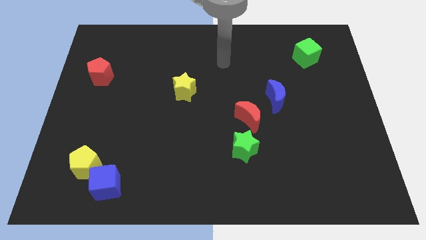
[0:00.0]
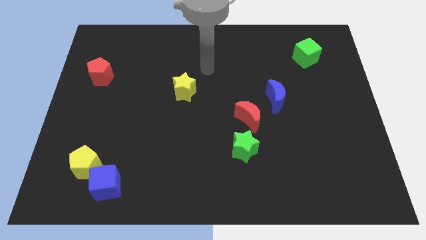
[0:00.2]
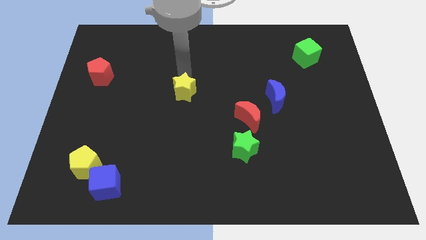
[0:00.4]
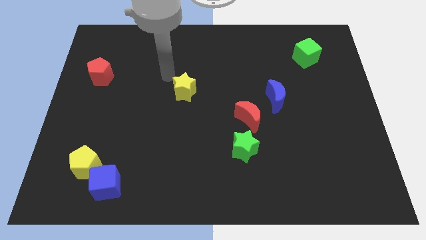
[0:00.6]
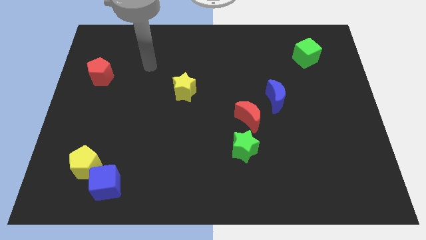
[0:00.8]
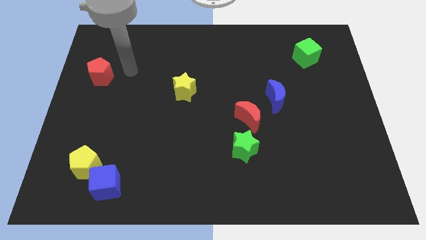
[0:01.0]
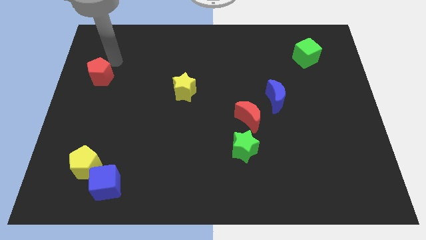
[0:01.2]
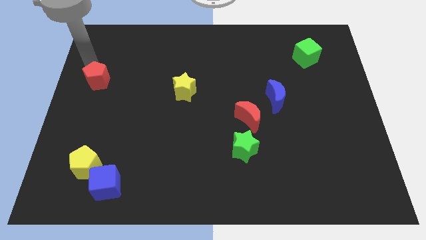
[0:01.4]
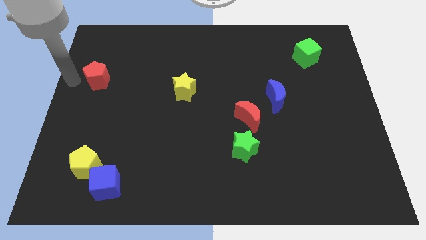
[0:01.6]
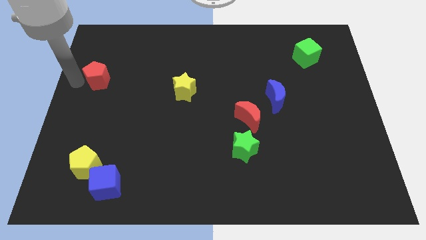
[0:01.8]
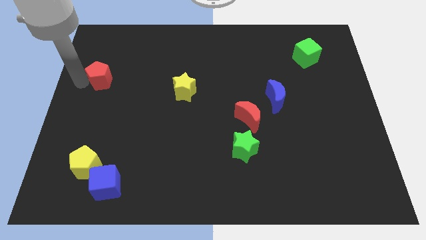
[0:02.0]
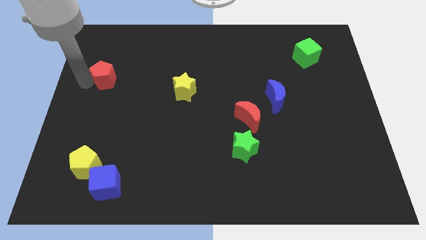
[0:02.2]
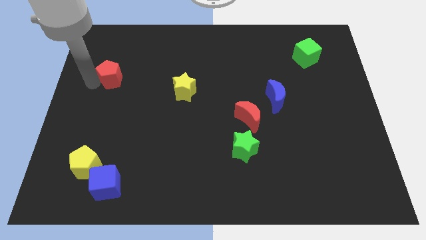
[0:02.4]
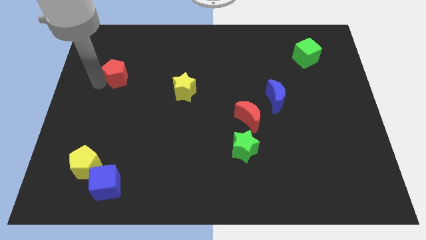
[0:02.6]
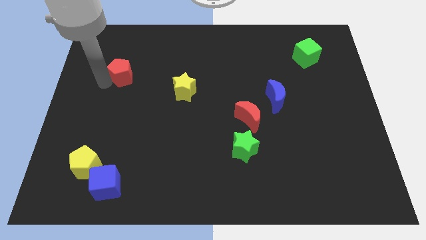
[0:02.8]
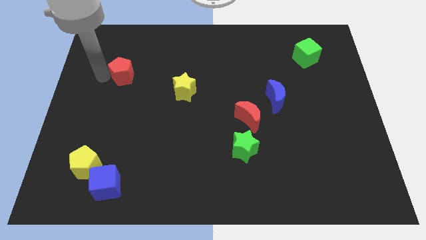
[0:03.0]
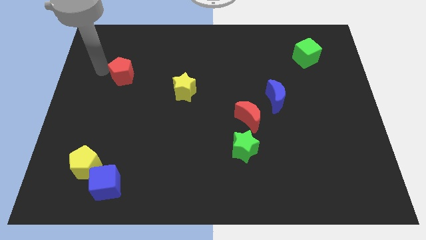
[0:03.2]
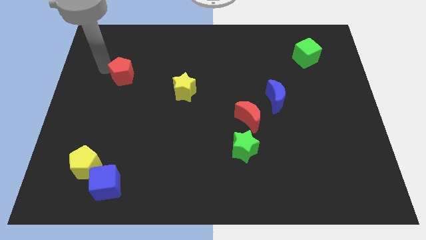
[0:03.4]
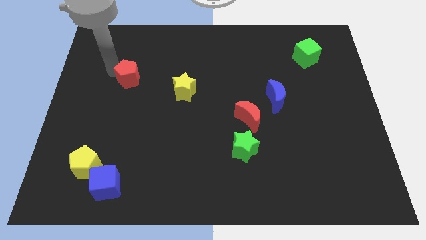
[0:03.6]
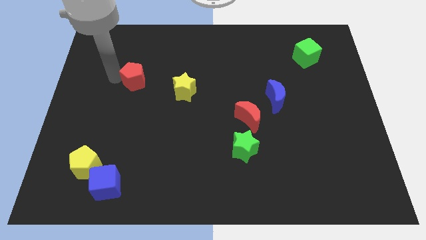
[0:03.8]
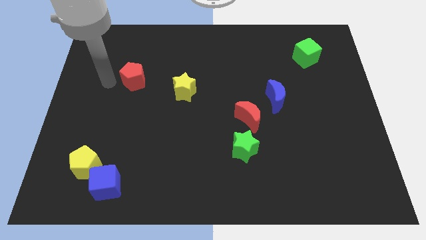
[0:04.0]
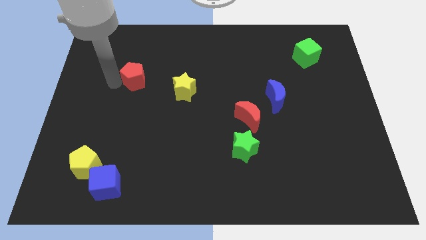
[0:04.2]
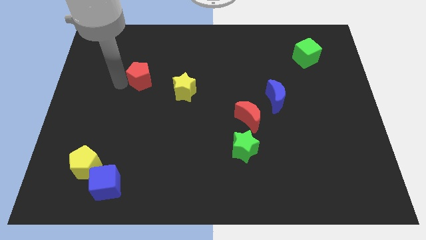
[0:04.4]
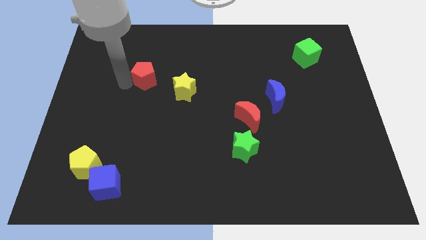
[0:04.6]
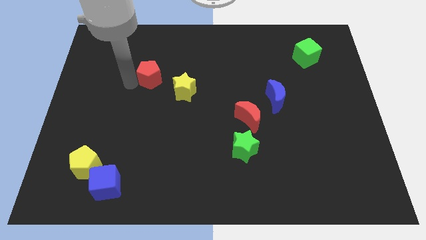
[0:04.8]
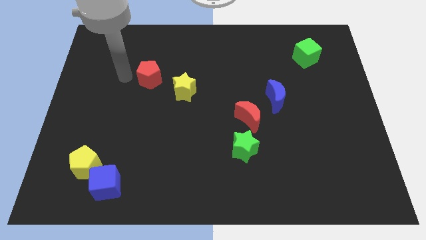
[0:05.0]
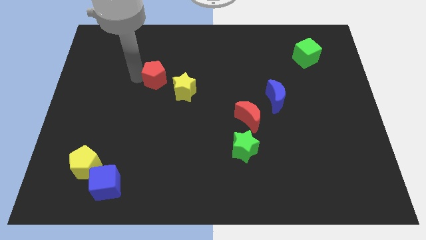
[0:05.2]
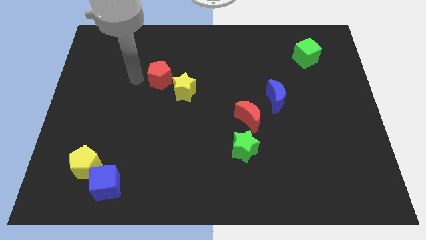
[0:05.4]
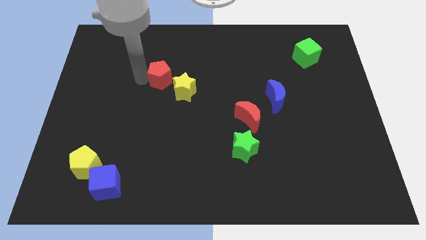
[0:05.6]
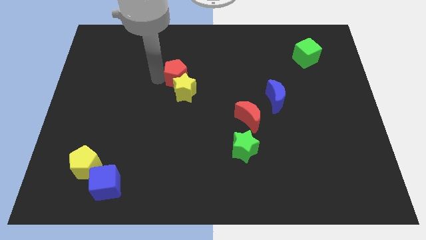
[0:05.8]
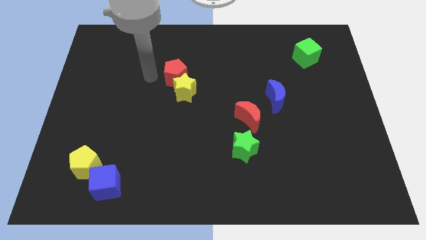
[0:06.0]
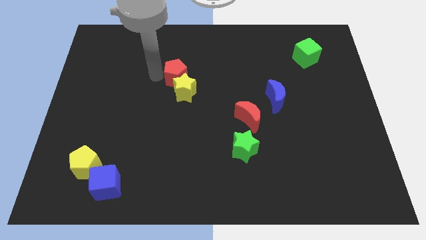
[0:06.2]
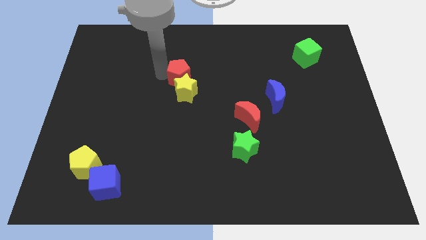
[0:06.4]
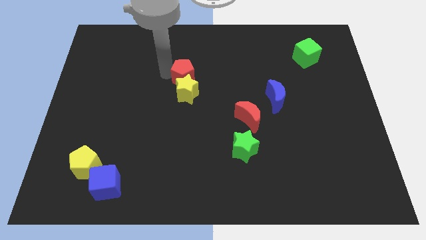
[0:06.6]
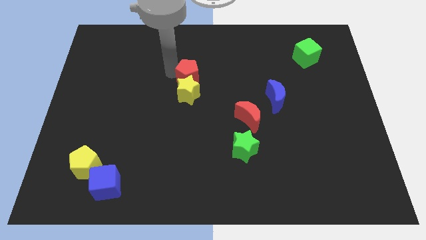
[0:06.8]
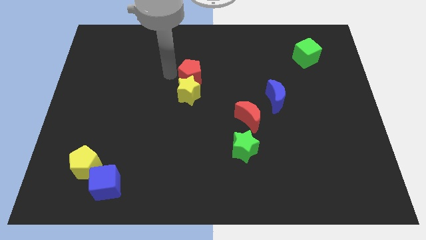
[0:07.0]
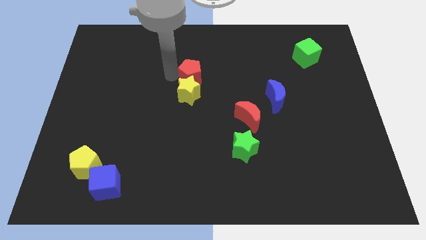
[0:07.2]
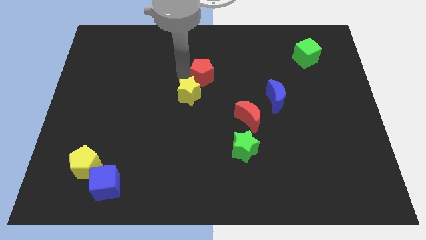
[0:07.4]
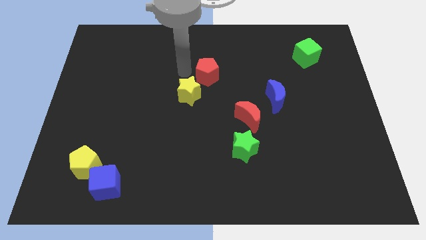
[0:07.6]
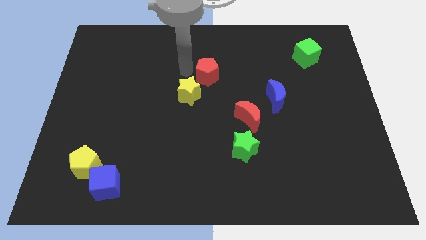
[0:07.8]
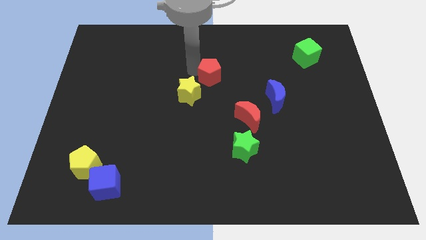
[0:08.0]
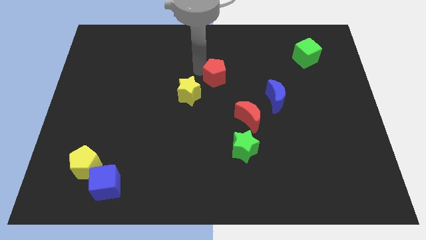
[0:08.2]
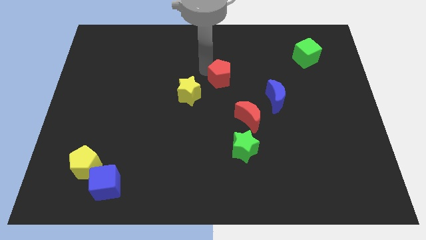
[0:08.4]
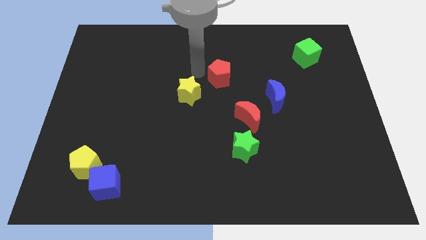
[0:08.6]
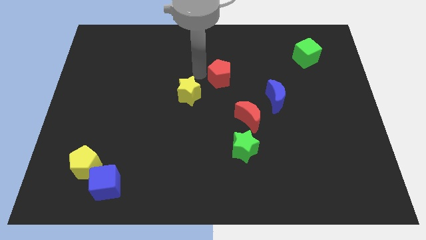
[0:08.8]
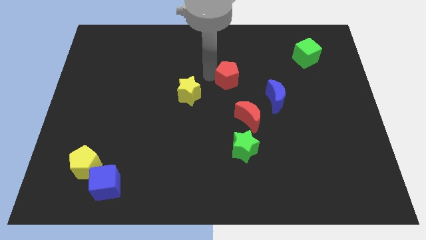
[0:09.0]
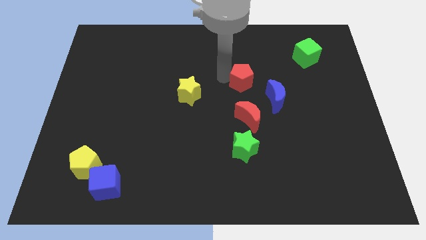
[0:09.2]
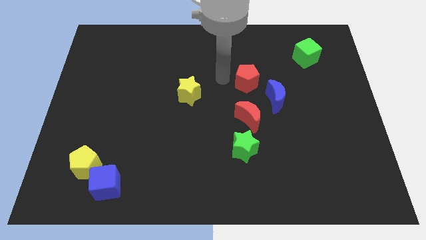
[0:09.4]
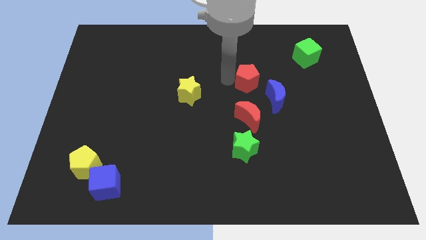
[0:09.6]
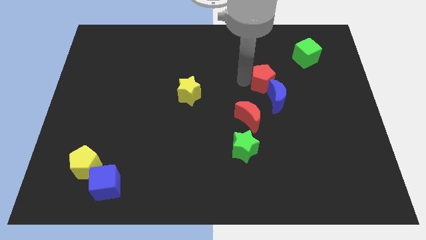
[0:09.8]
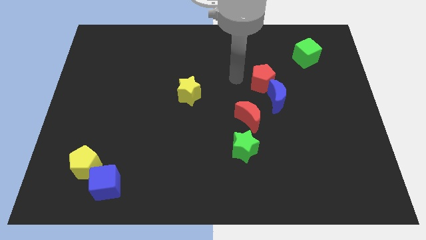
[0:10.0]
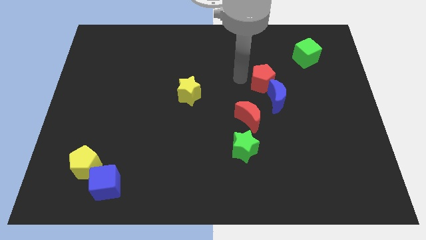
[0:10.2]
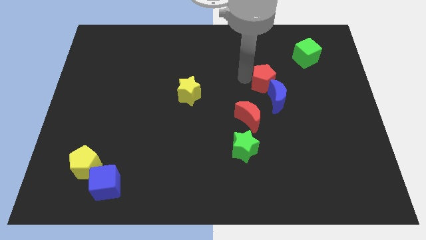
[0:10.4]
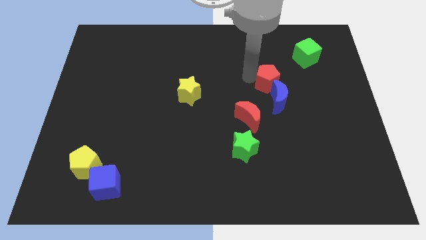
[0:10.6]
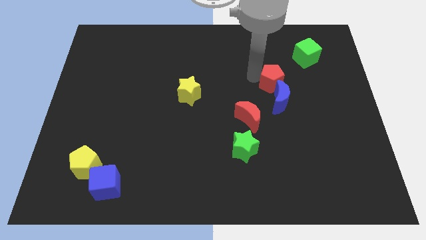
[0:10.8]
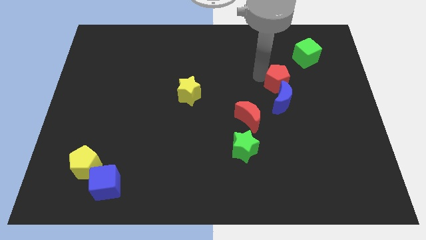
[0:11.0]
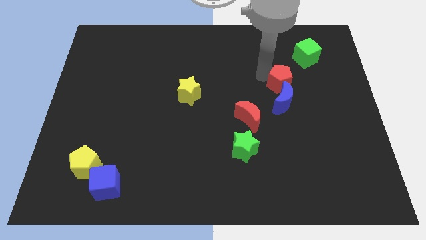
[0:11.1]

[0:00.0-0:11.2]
push the red pentagon to the top right of the blue moon

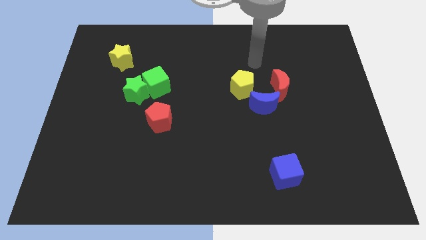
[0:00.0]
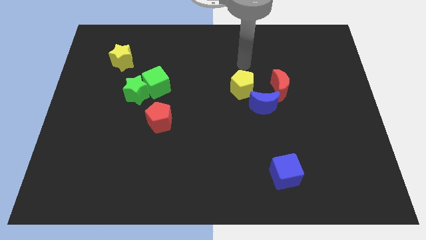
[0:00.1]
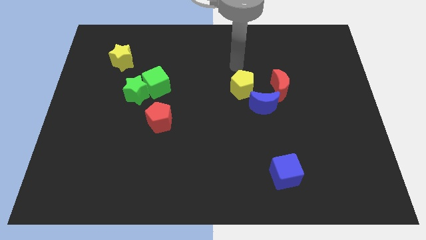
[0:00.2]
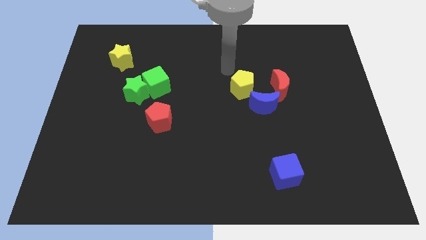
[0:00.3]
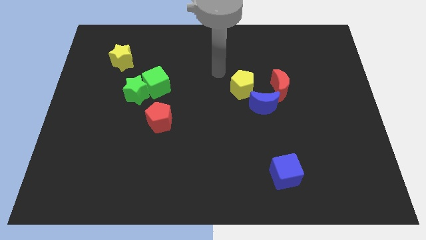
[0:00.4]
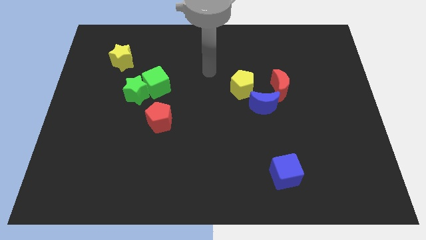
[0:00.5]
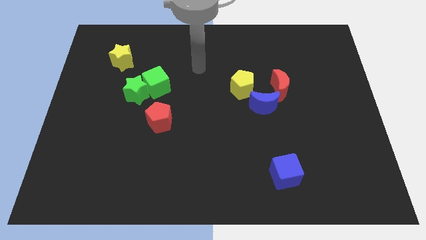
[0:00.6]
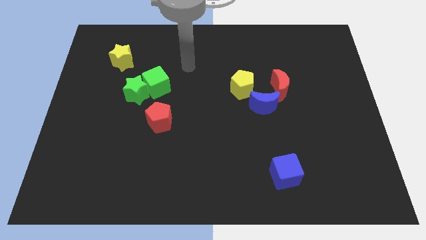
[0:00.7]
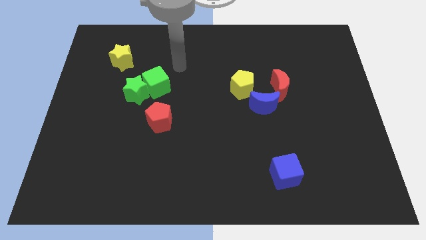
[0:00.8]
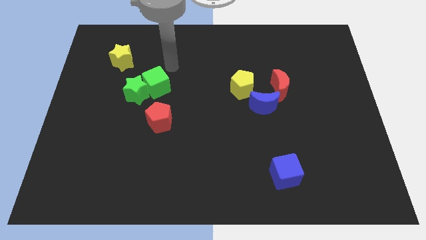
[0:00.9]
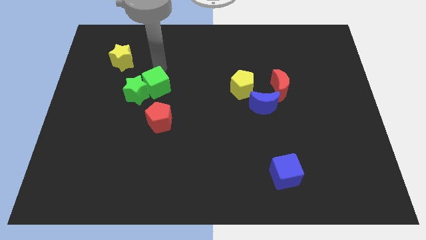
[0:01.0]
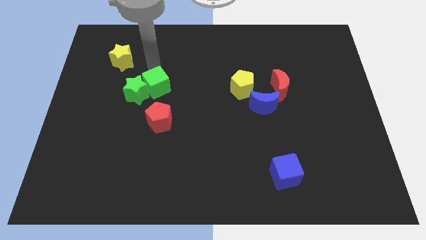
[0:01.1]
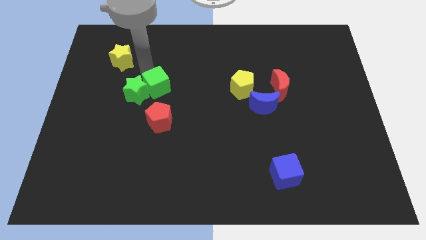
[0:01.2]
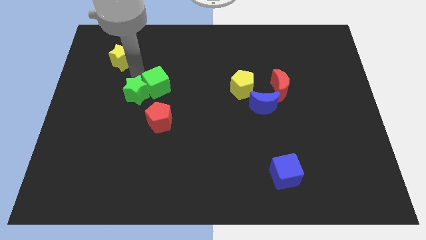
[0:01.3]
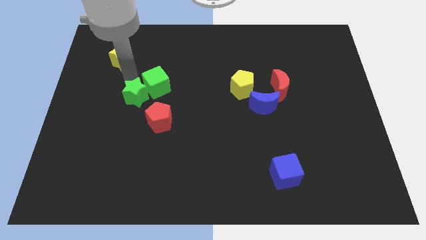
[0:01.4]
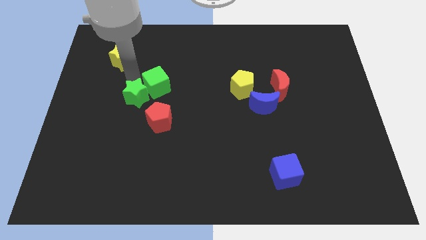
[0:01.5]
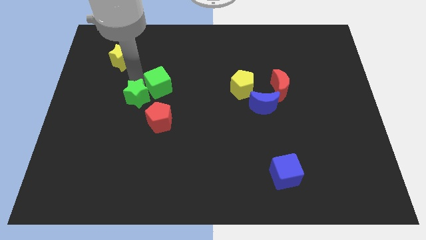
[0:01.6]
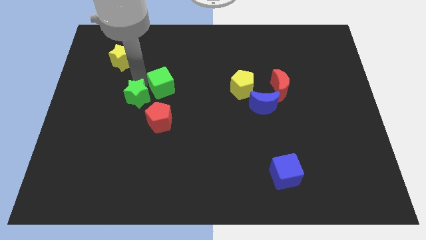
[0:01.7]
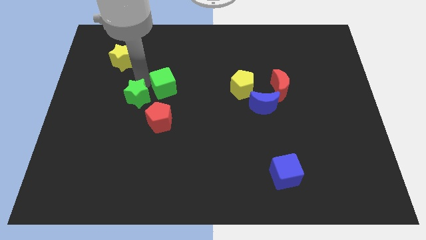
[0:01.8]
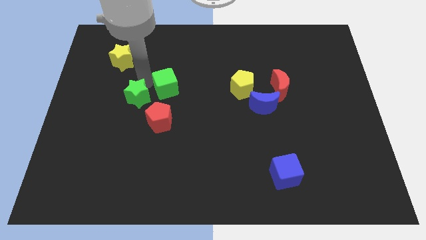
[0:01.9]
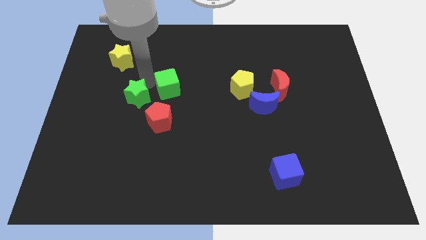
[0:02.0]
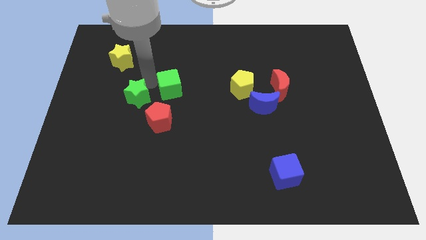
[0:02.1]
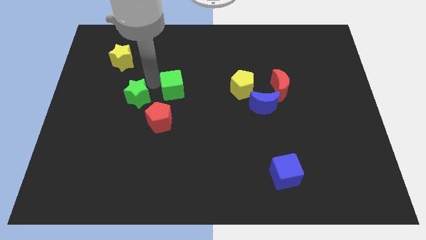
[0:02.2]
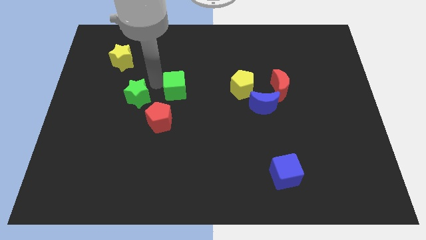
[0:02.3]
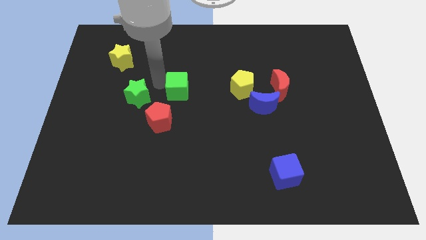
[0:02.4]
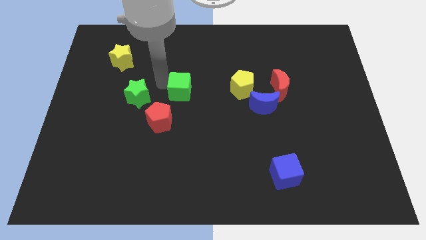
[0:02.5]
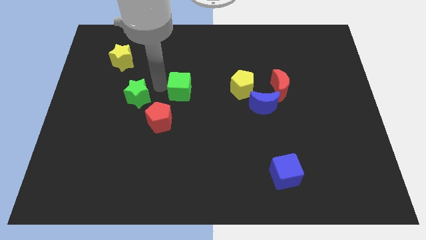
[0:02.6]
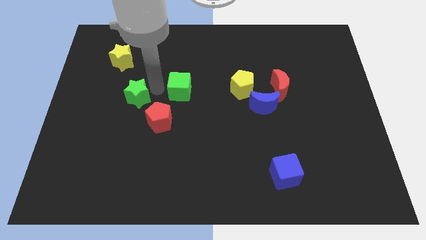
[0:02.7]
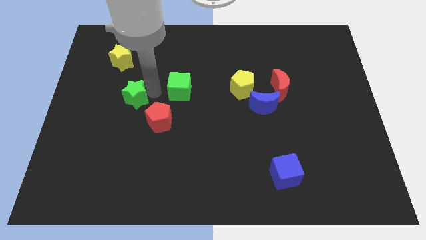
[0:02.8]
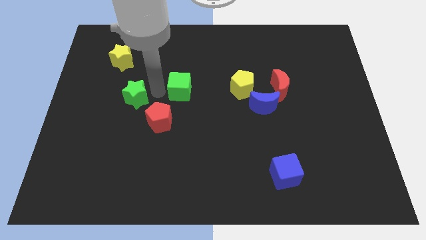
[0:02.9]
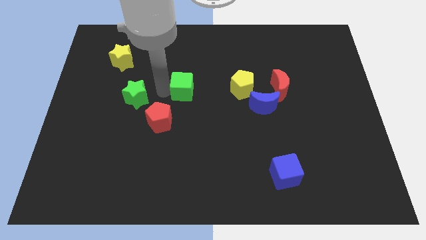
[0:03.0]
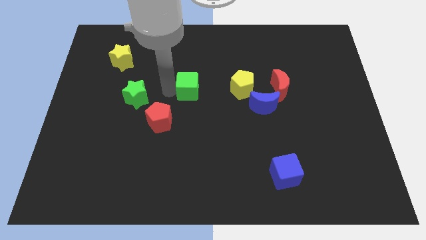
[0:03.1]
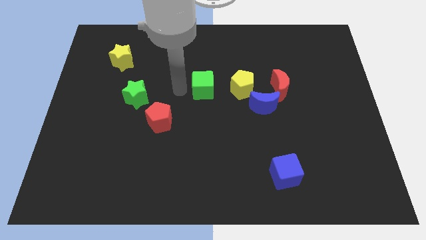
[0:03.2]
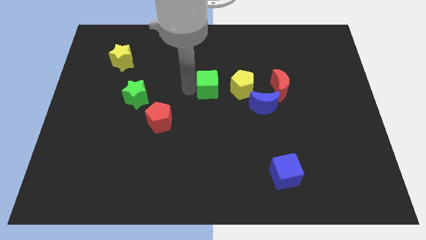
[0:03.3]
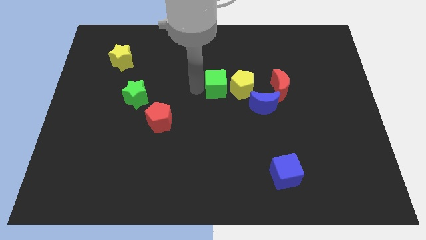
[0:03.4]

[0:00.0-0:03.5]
put the green cube to the left side of the red moon
